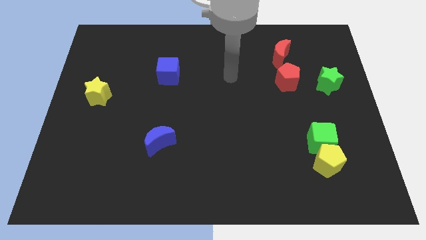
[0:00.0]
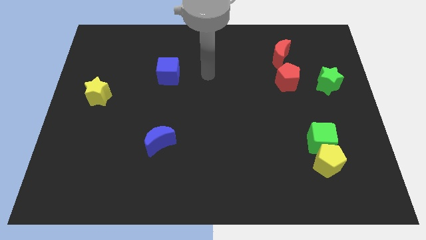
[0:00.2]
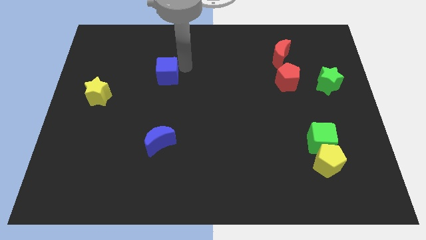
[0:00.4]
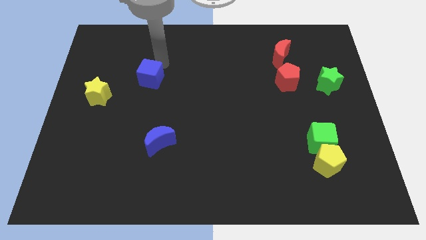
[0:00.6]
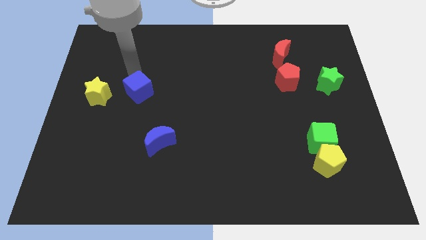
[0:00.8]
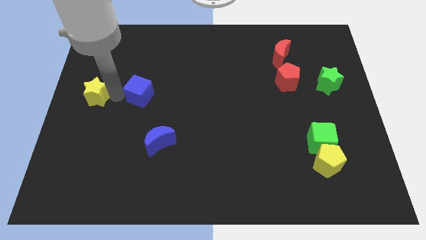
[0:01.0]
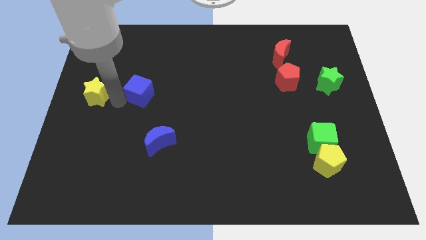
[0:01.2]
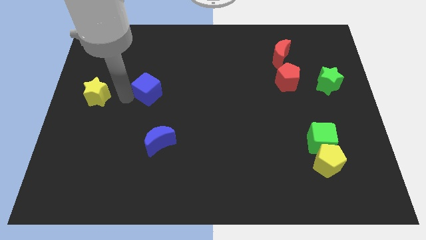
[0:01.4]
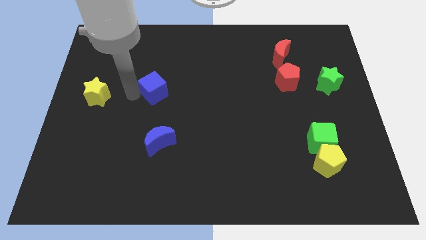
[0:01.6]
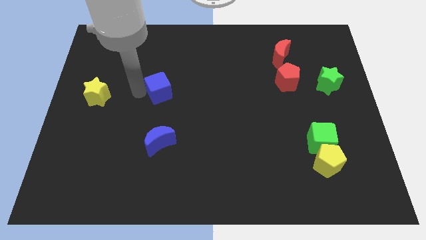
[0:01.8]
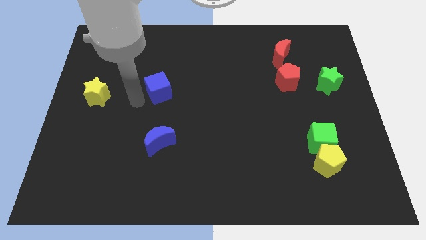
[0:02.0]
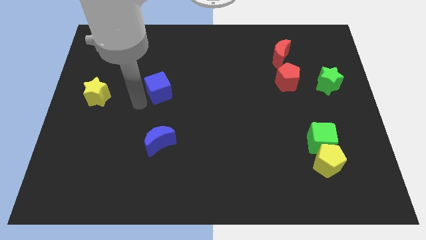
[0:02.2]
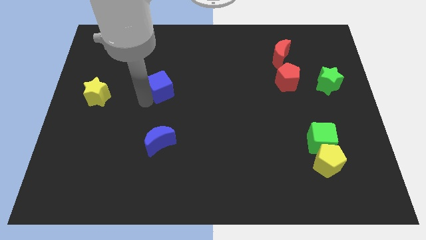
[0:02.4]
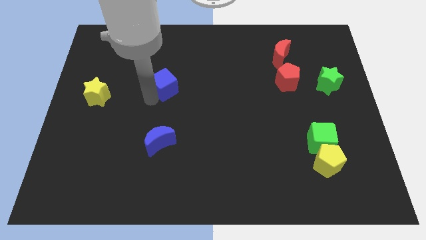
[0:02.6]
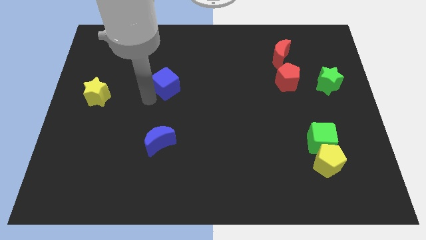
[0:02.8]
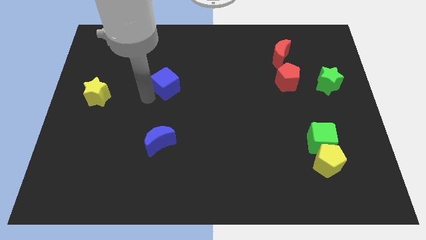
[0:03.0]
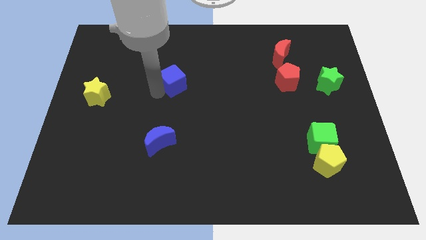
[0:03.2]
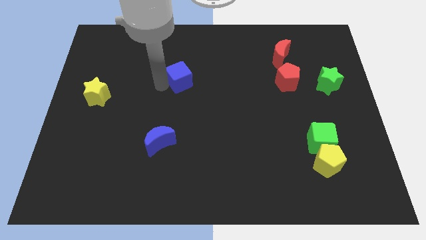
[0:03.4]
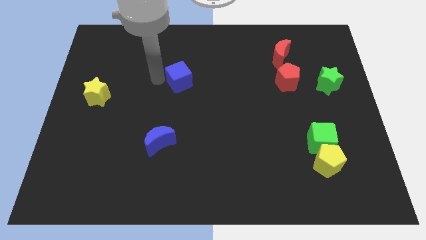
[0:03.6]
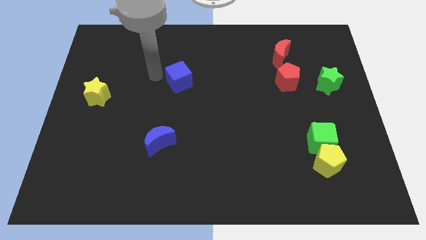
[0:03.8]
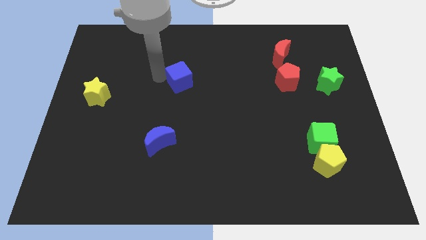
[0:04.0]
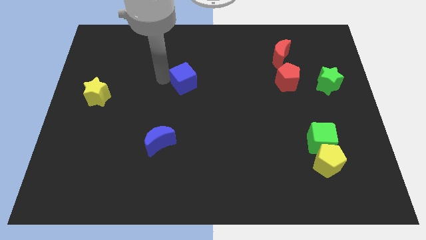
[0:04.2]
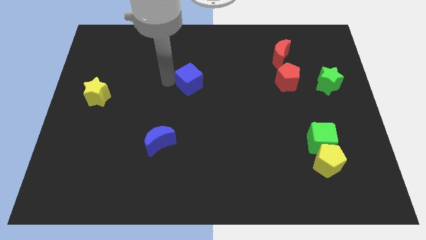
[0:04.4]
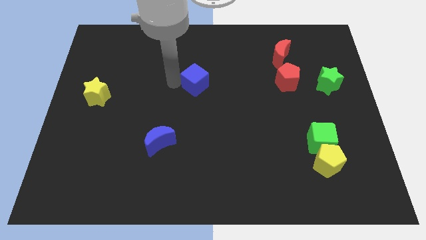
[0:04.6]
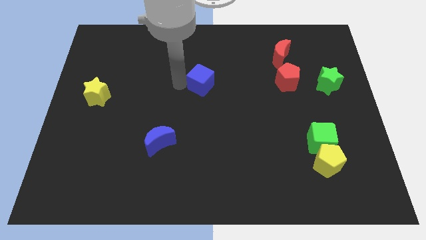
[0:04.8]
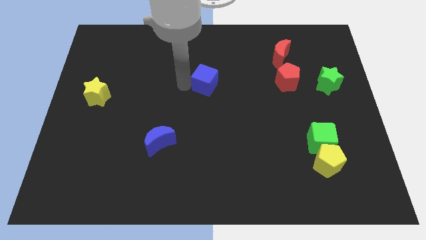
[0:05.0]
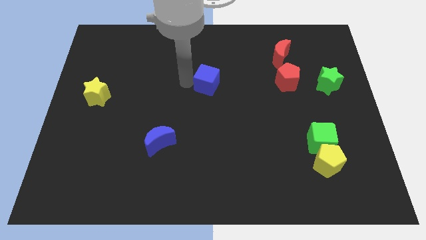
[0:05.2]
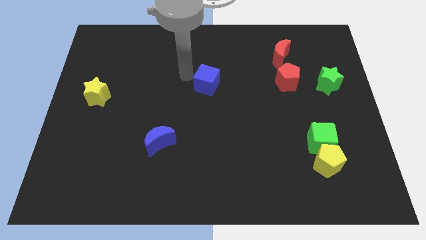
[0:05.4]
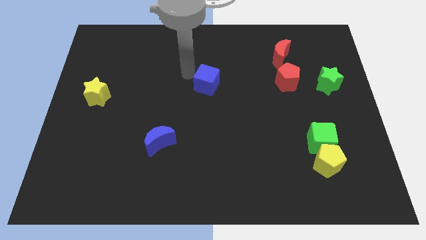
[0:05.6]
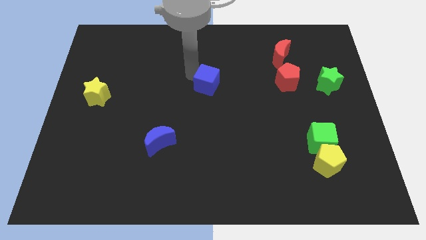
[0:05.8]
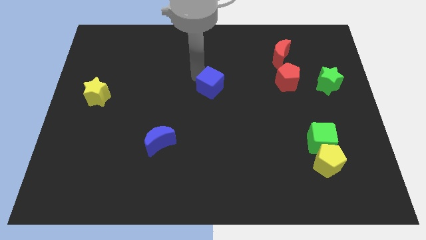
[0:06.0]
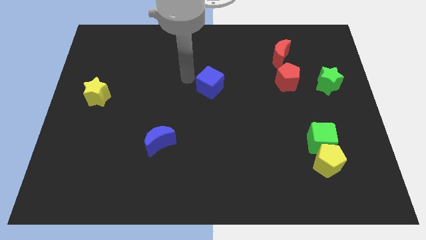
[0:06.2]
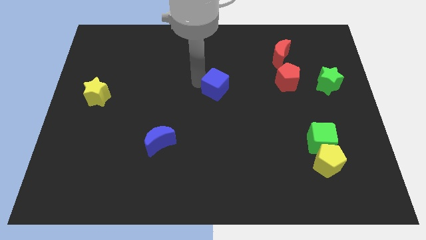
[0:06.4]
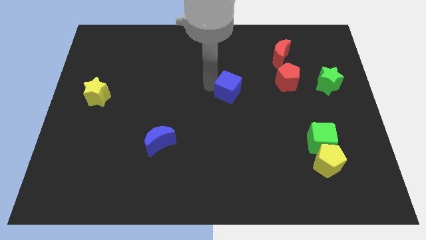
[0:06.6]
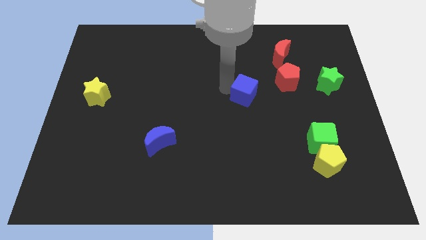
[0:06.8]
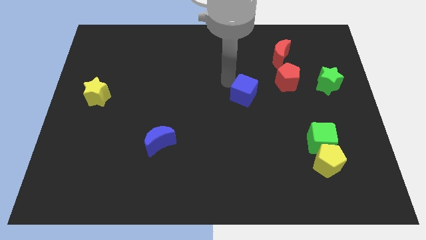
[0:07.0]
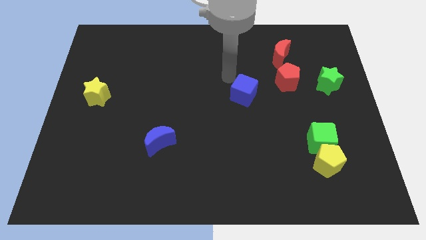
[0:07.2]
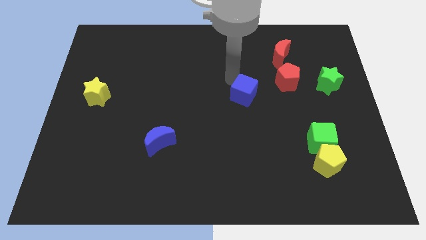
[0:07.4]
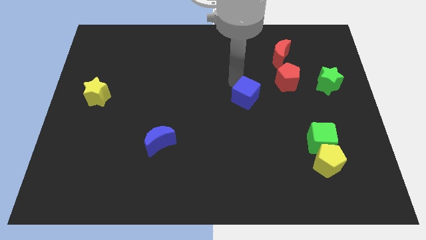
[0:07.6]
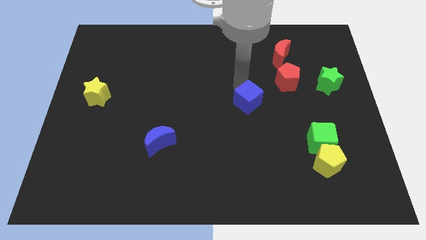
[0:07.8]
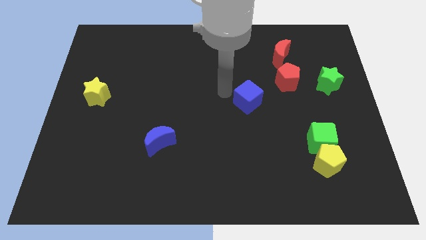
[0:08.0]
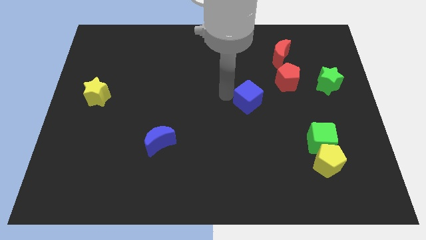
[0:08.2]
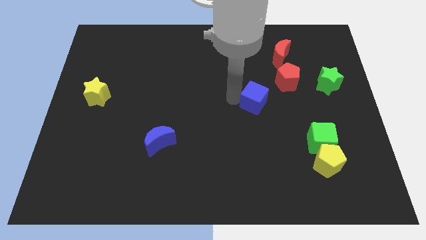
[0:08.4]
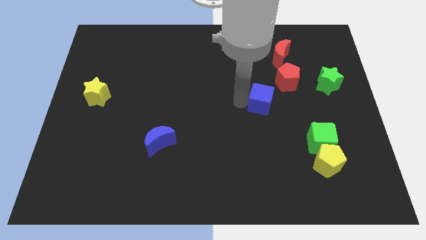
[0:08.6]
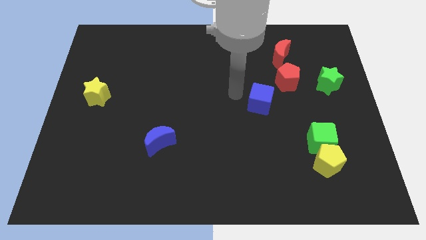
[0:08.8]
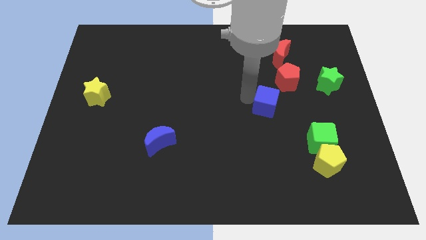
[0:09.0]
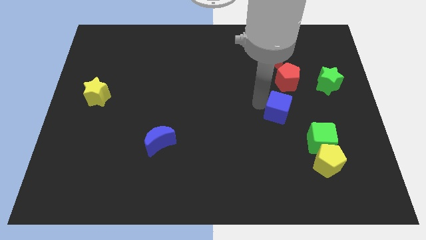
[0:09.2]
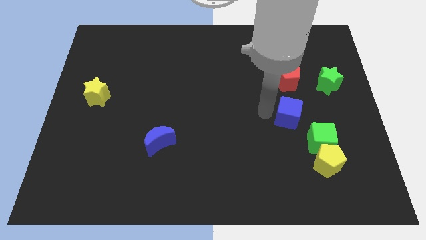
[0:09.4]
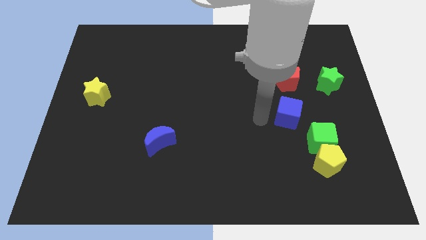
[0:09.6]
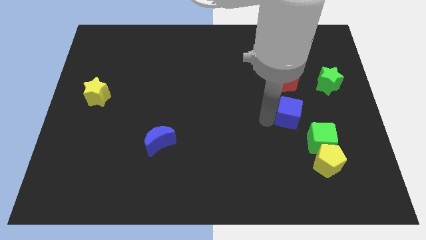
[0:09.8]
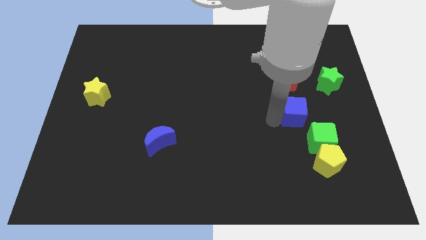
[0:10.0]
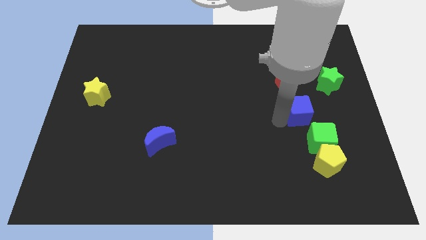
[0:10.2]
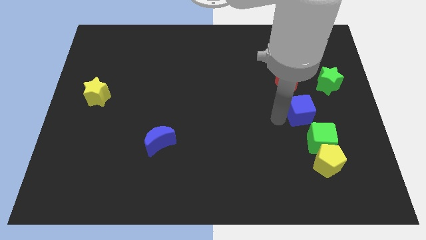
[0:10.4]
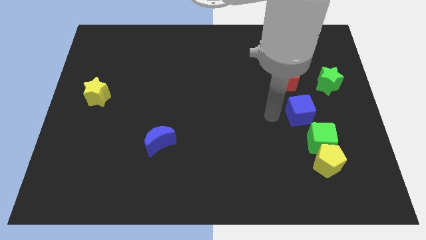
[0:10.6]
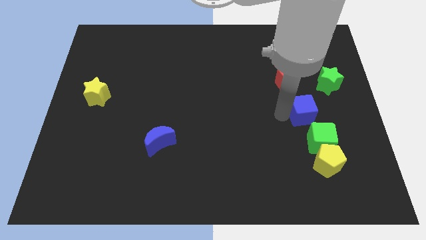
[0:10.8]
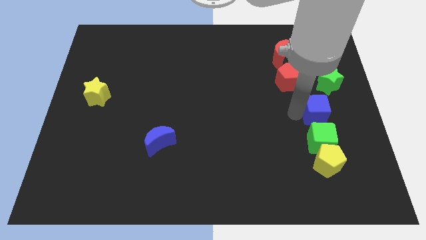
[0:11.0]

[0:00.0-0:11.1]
move the blue cube to the bottom side of the green star

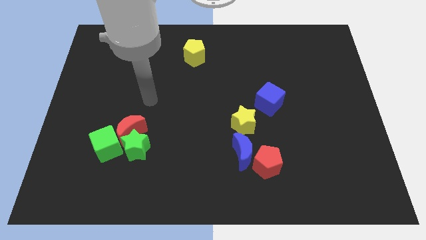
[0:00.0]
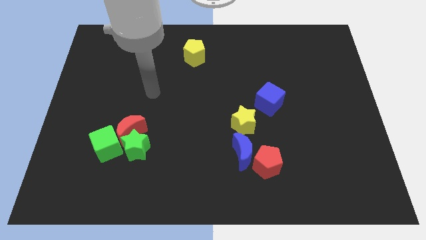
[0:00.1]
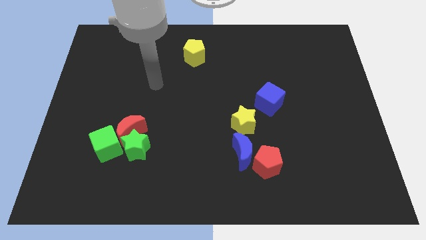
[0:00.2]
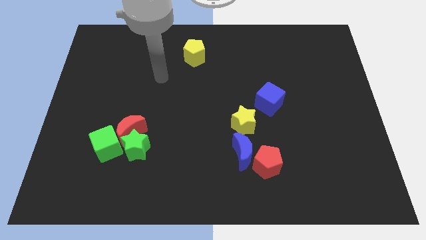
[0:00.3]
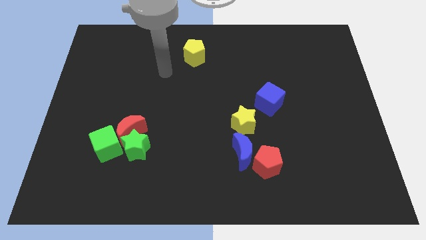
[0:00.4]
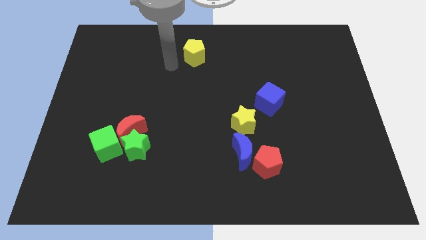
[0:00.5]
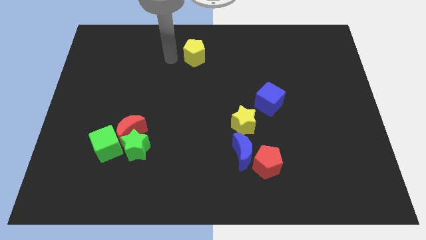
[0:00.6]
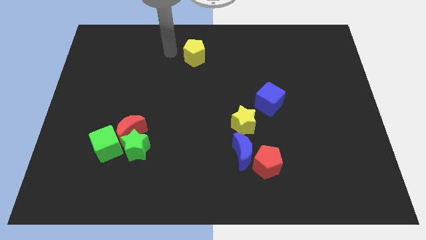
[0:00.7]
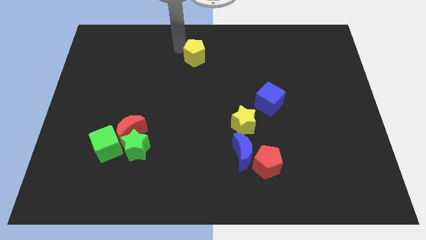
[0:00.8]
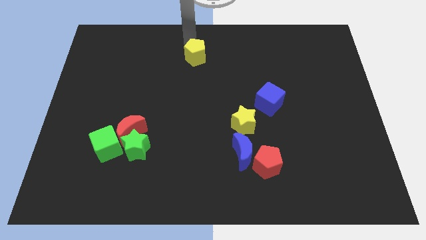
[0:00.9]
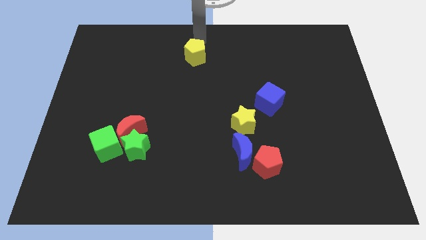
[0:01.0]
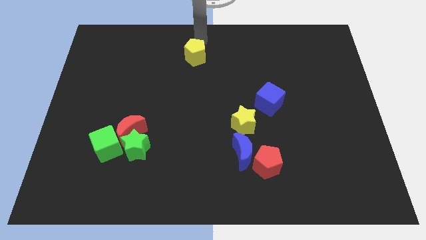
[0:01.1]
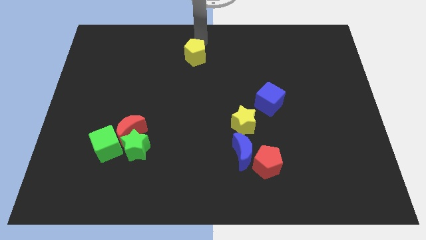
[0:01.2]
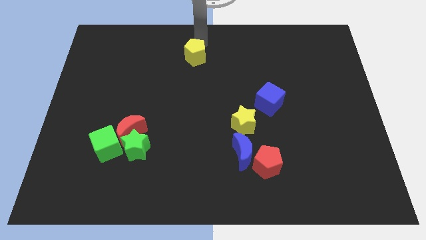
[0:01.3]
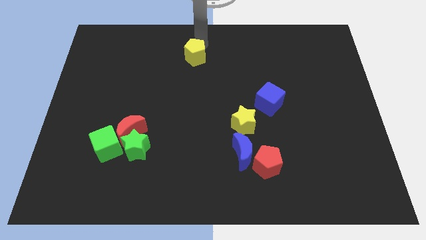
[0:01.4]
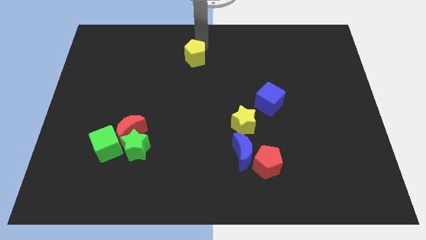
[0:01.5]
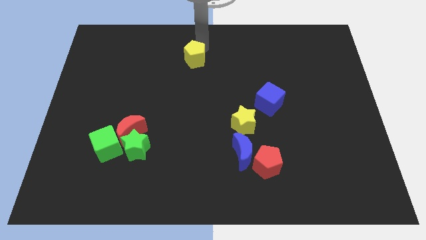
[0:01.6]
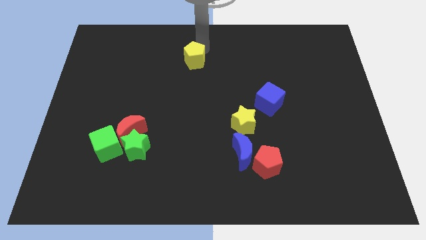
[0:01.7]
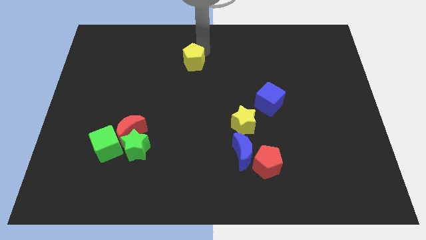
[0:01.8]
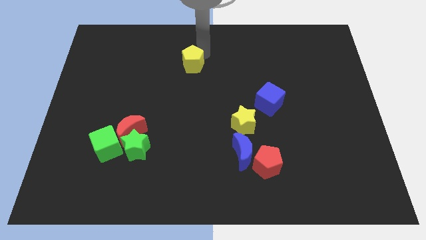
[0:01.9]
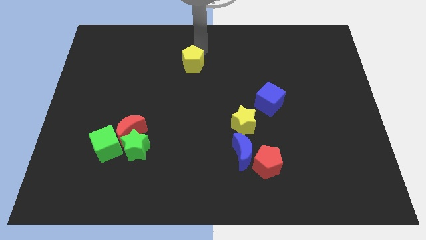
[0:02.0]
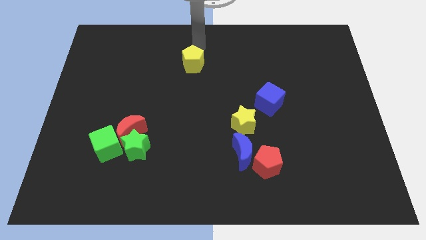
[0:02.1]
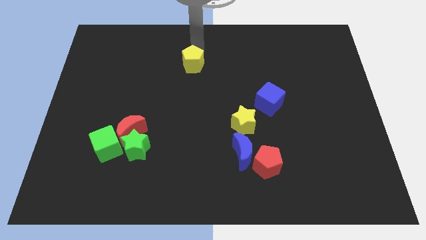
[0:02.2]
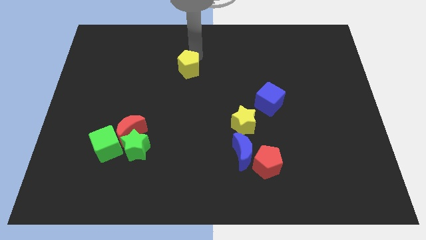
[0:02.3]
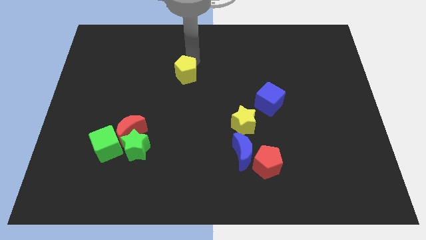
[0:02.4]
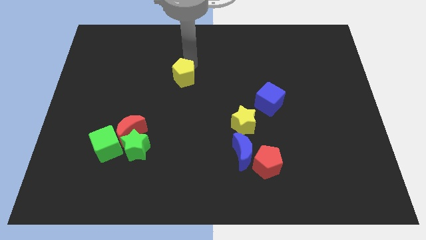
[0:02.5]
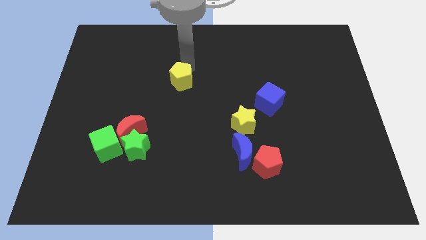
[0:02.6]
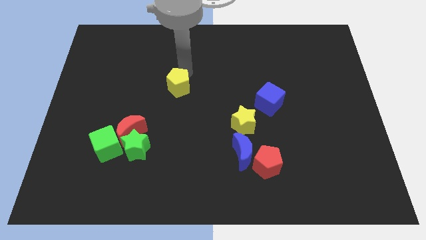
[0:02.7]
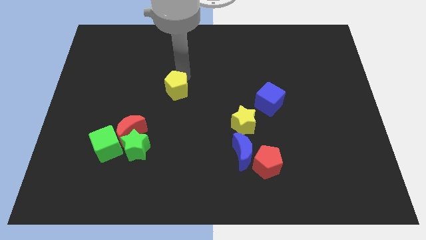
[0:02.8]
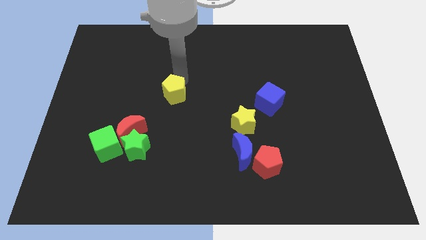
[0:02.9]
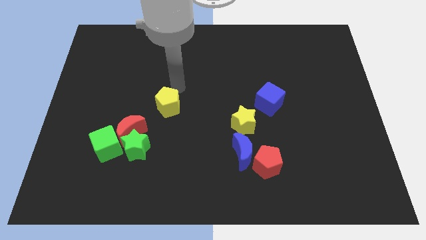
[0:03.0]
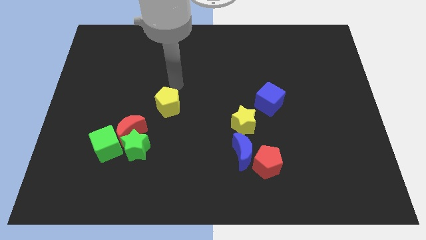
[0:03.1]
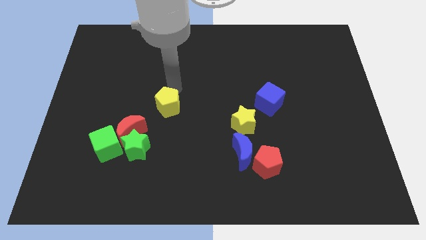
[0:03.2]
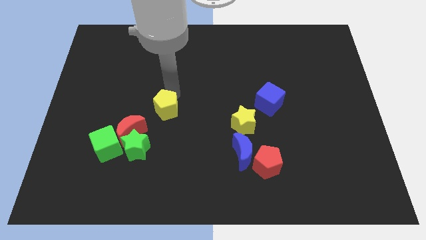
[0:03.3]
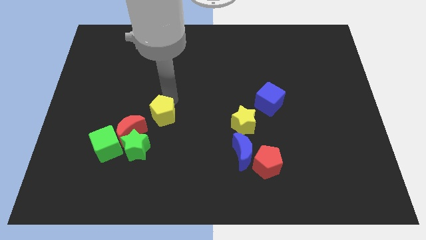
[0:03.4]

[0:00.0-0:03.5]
push the yellow pentagon diagonally up and to the right of the green star
